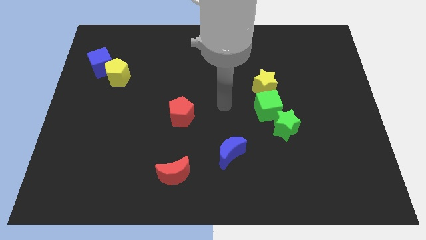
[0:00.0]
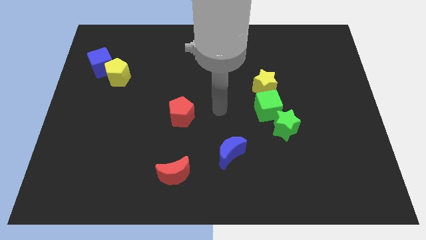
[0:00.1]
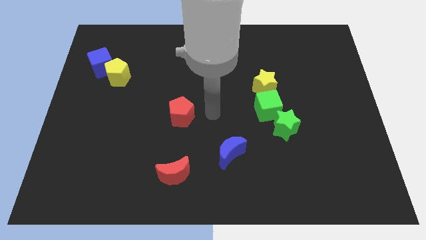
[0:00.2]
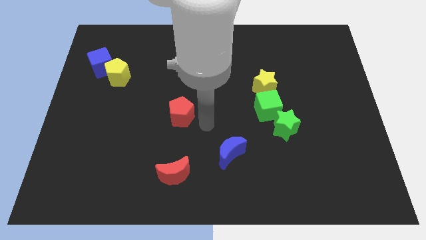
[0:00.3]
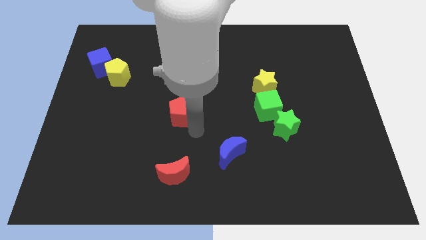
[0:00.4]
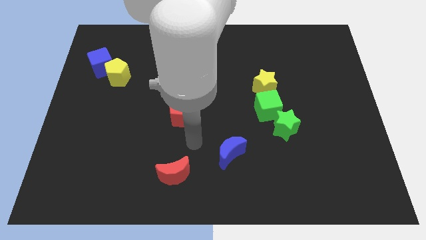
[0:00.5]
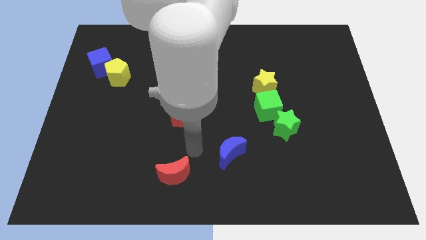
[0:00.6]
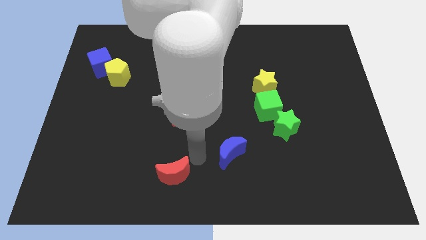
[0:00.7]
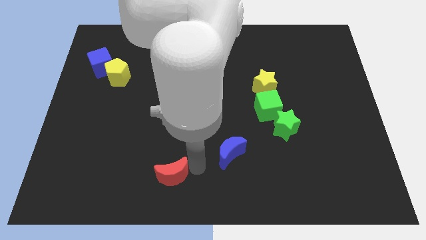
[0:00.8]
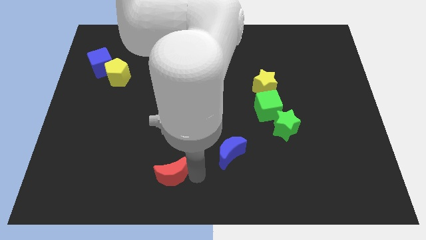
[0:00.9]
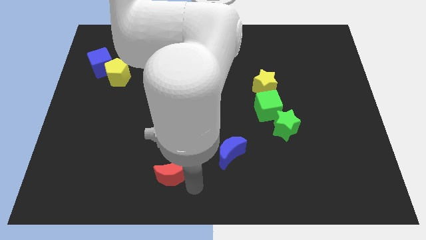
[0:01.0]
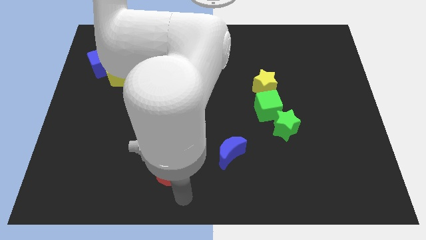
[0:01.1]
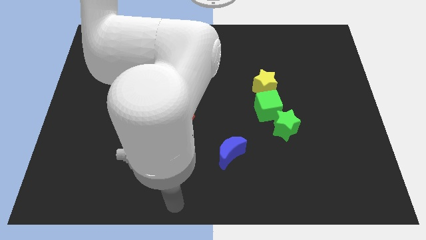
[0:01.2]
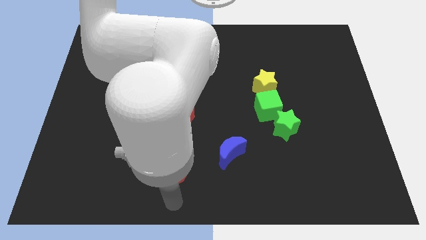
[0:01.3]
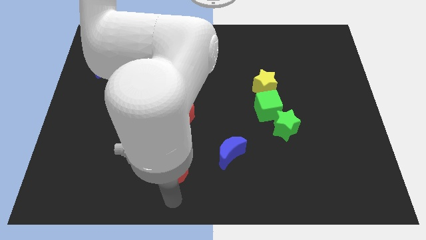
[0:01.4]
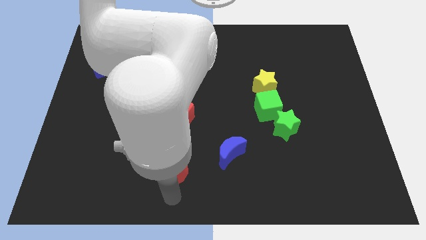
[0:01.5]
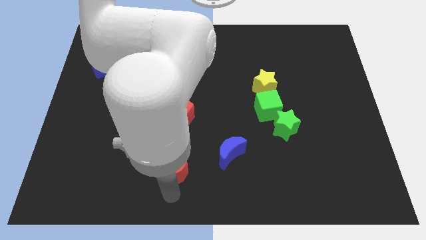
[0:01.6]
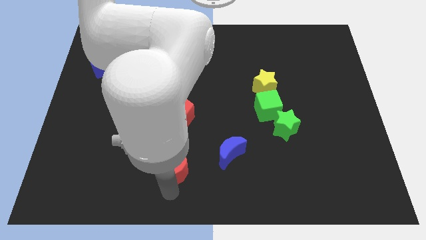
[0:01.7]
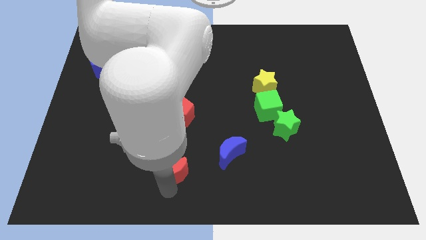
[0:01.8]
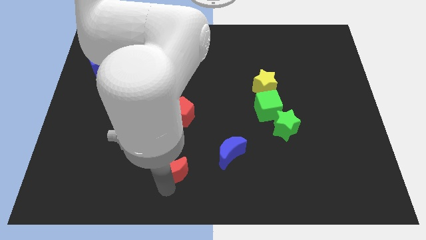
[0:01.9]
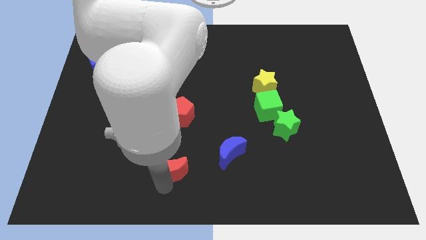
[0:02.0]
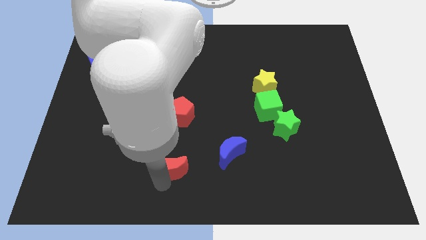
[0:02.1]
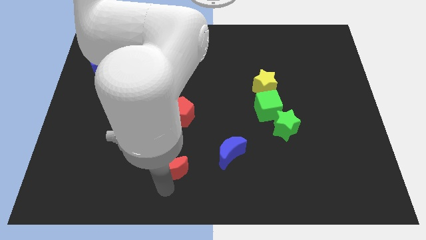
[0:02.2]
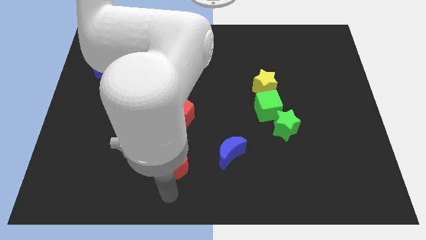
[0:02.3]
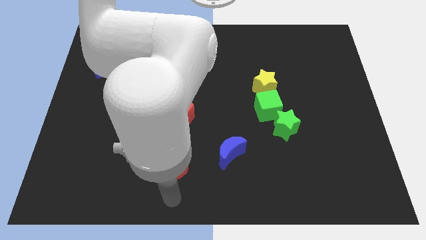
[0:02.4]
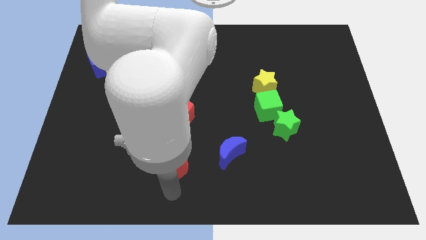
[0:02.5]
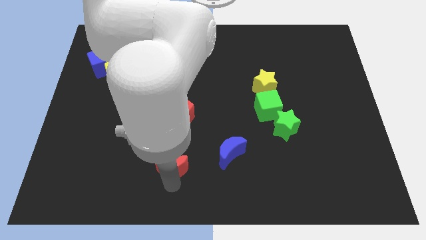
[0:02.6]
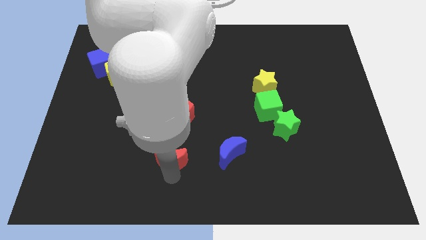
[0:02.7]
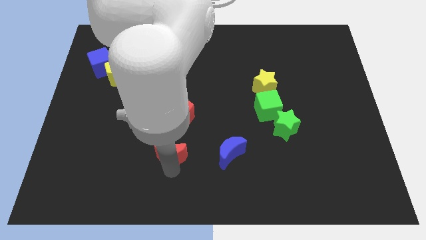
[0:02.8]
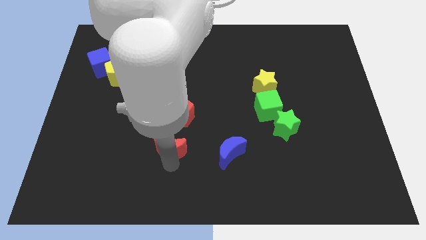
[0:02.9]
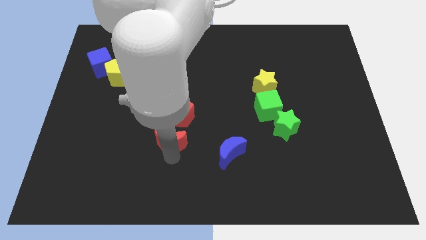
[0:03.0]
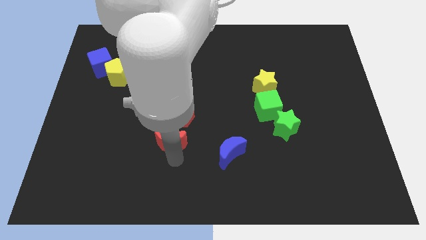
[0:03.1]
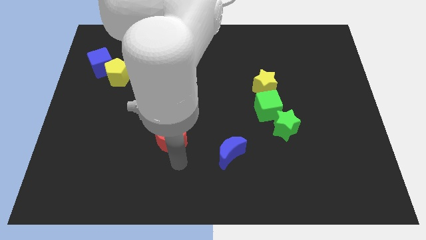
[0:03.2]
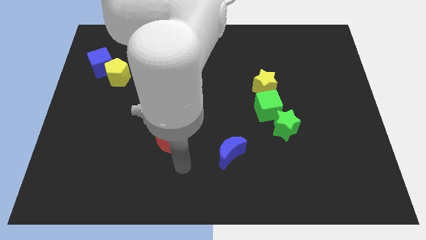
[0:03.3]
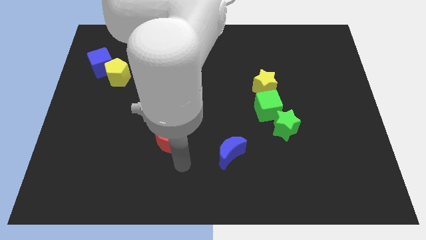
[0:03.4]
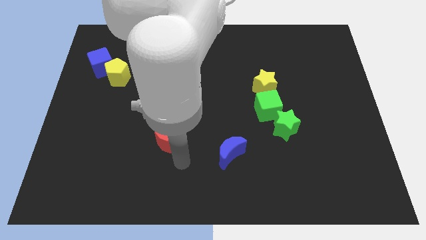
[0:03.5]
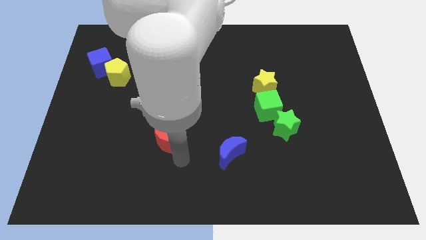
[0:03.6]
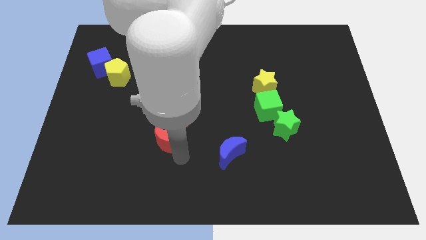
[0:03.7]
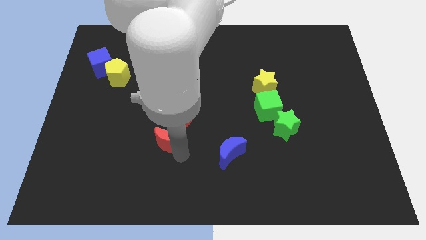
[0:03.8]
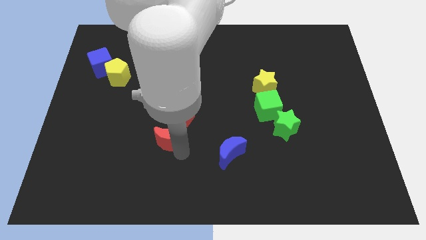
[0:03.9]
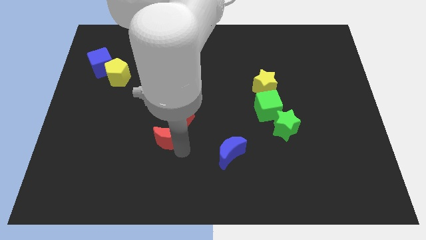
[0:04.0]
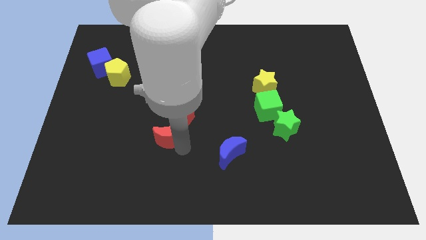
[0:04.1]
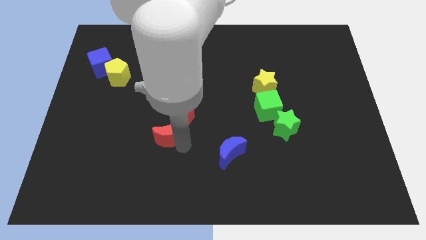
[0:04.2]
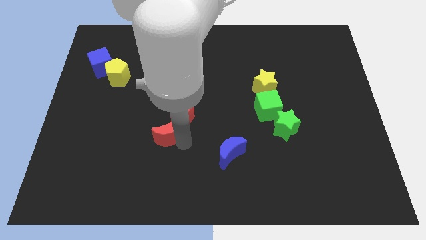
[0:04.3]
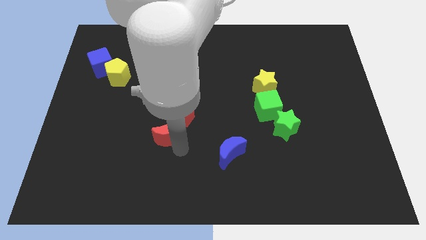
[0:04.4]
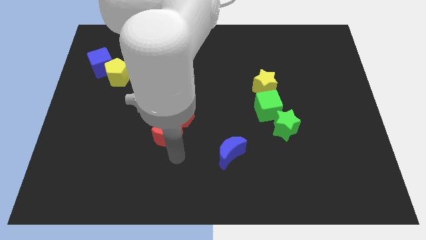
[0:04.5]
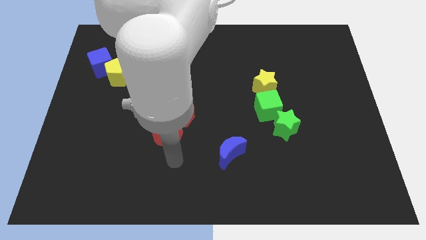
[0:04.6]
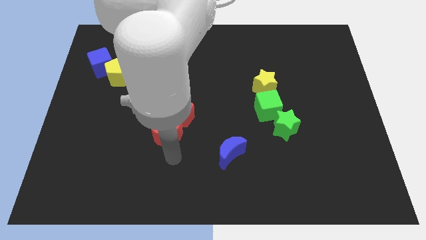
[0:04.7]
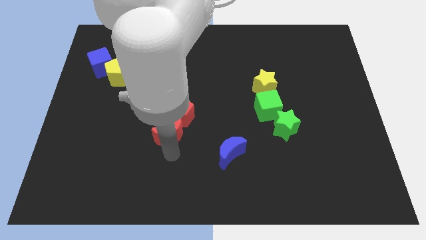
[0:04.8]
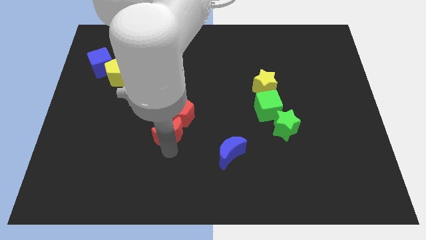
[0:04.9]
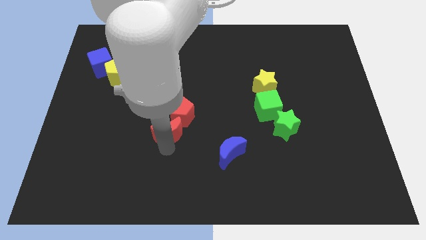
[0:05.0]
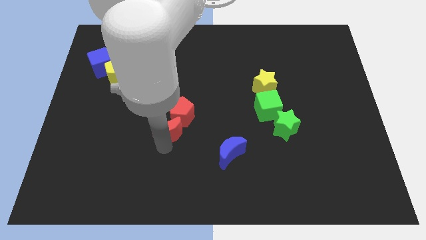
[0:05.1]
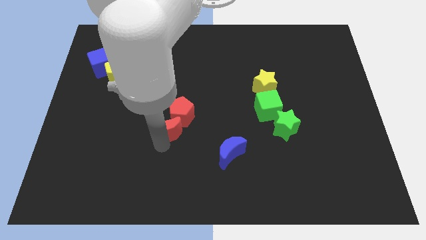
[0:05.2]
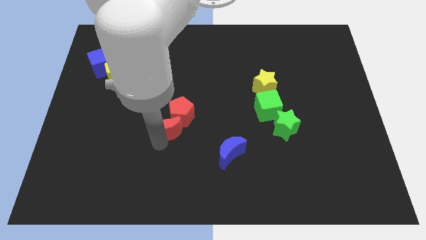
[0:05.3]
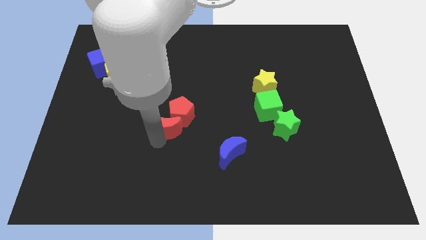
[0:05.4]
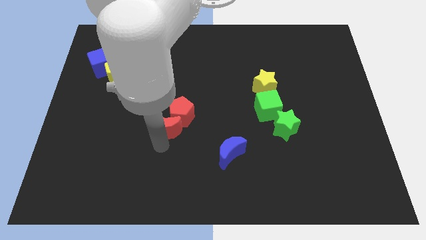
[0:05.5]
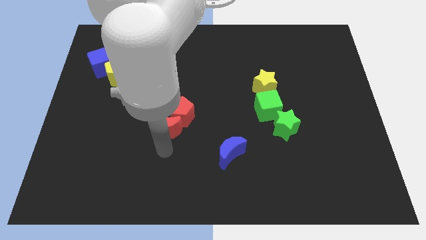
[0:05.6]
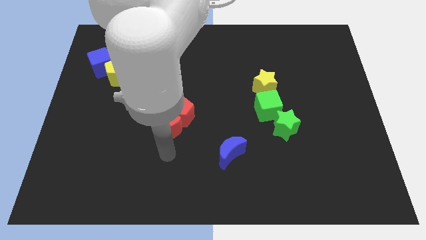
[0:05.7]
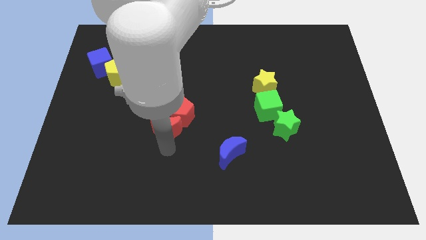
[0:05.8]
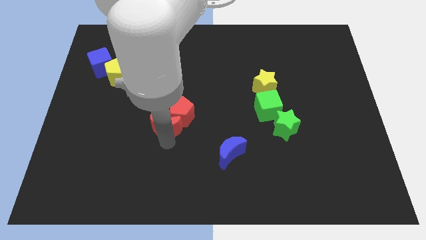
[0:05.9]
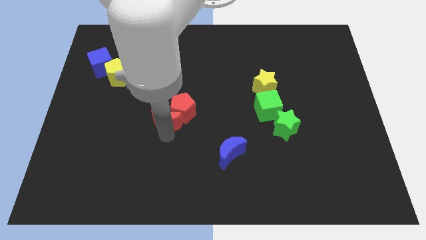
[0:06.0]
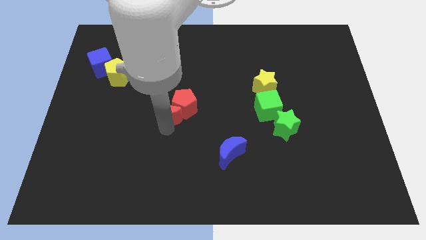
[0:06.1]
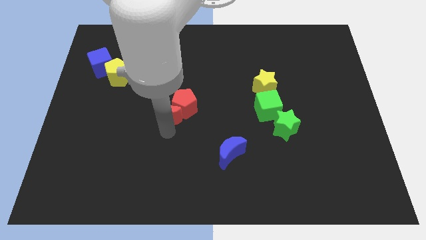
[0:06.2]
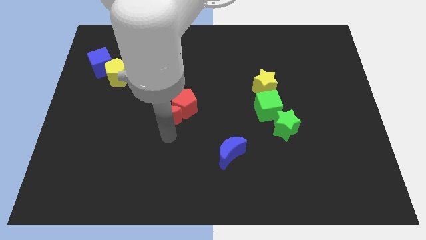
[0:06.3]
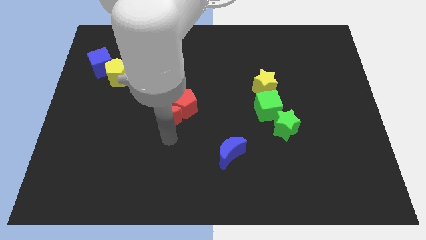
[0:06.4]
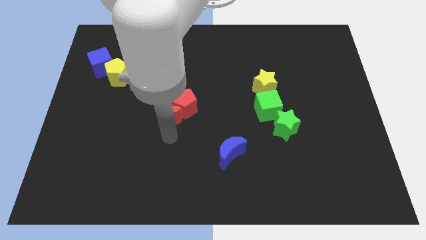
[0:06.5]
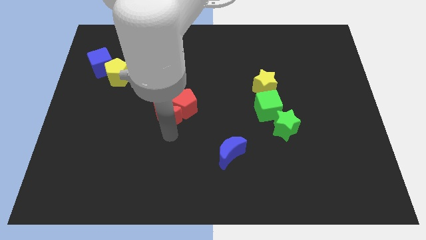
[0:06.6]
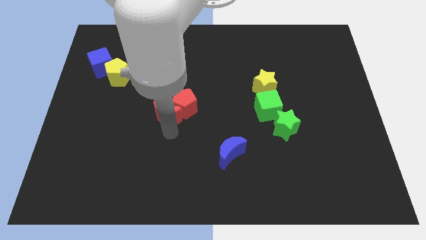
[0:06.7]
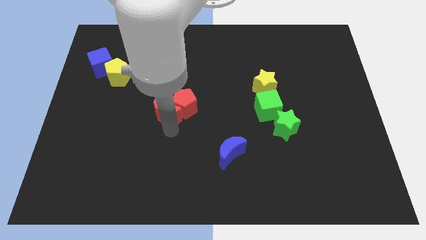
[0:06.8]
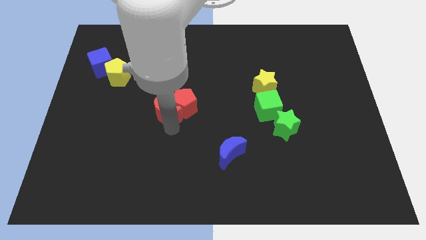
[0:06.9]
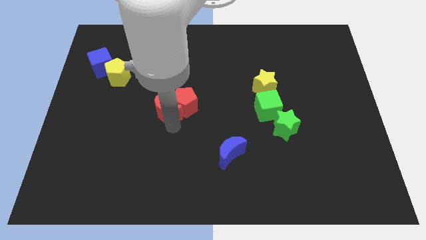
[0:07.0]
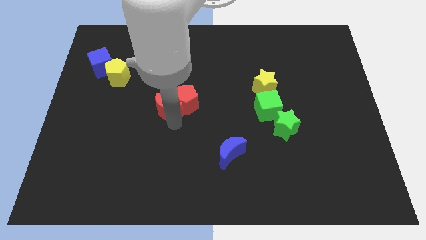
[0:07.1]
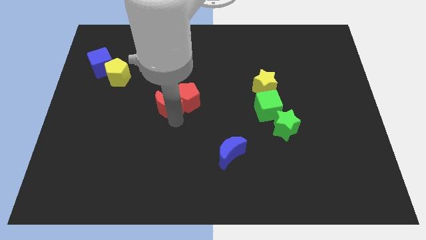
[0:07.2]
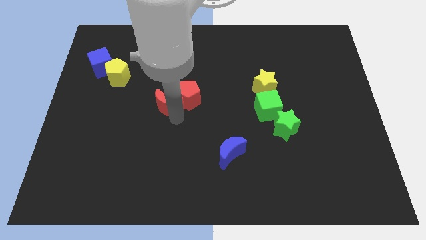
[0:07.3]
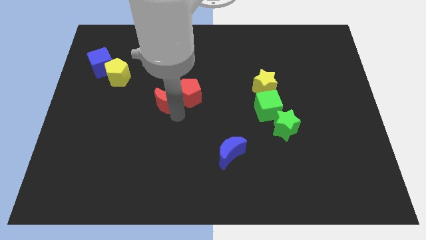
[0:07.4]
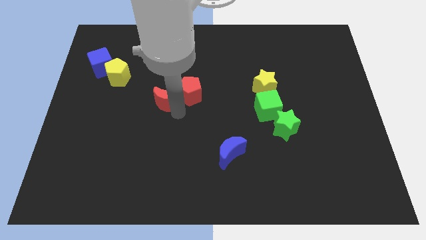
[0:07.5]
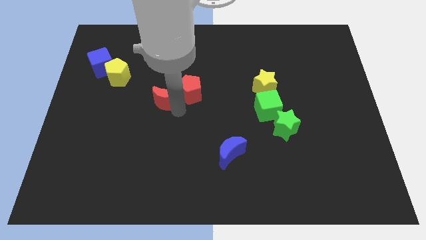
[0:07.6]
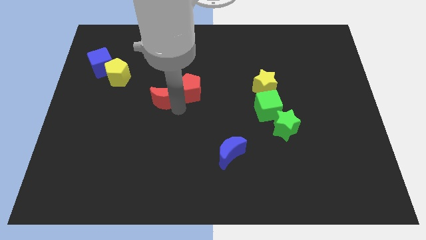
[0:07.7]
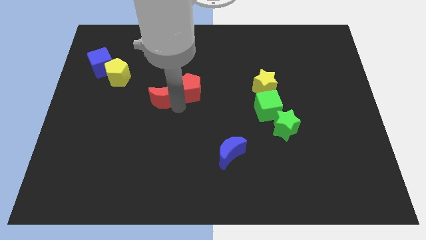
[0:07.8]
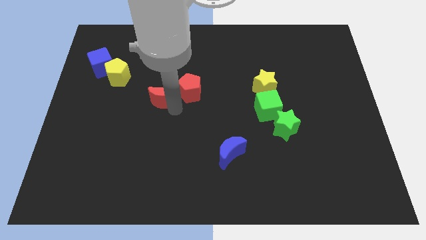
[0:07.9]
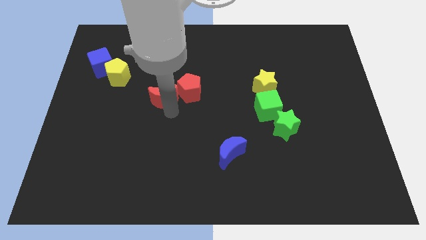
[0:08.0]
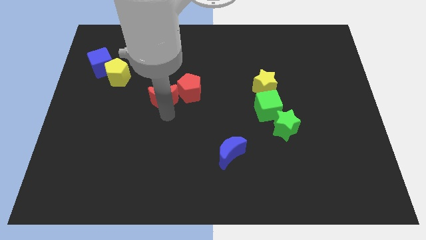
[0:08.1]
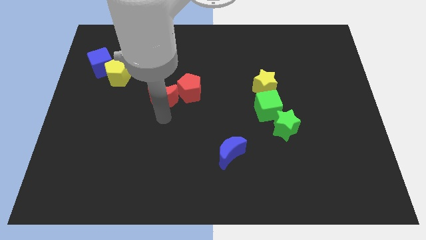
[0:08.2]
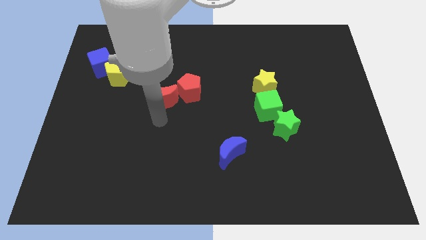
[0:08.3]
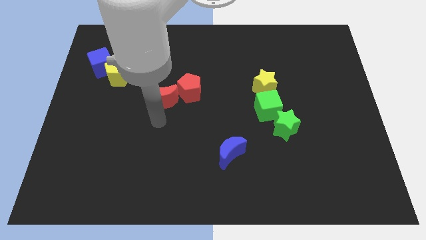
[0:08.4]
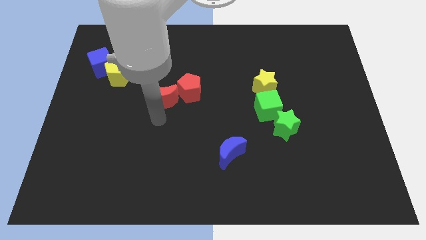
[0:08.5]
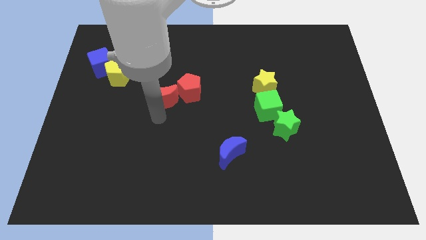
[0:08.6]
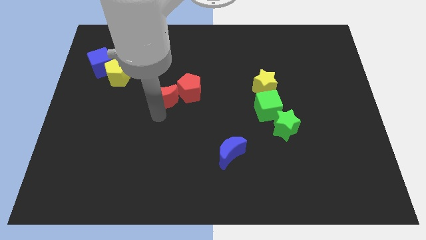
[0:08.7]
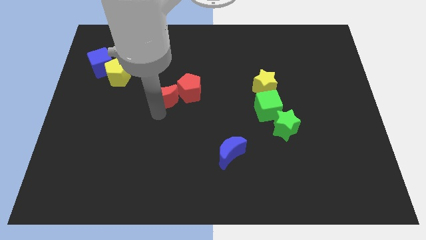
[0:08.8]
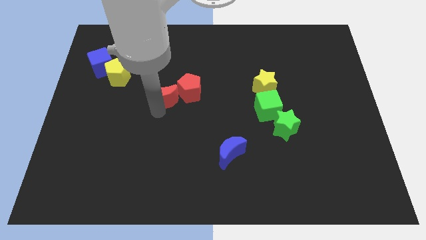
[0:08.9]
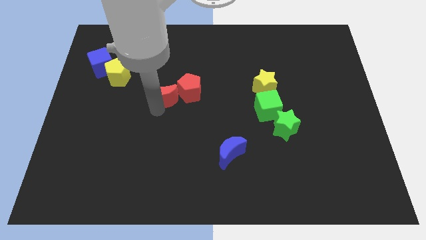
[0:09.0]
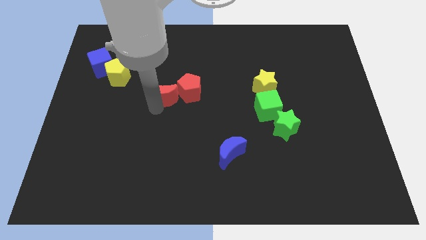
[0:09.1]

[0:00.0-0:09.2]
push the red moon up
